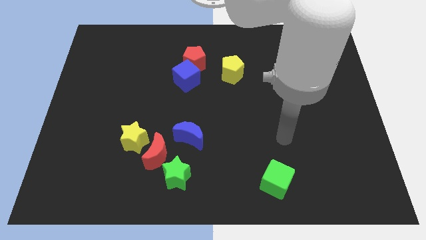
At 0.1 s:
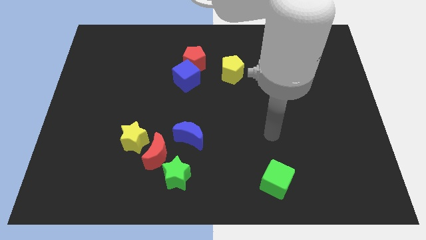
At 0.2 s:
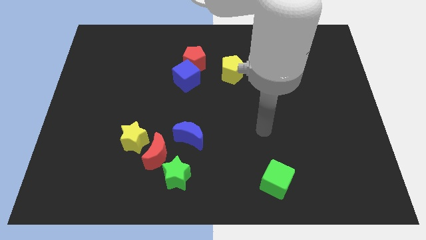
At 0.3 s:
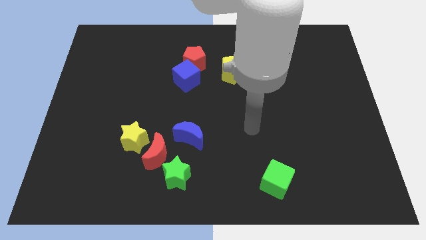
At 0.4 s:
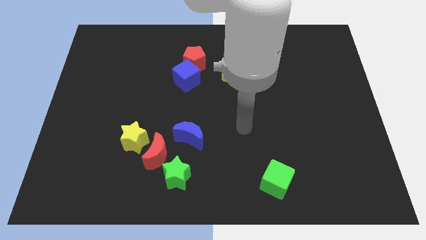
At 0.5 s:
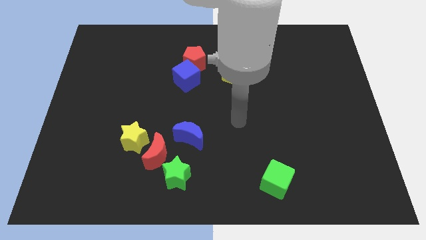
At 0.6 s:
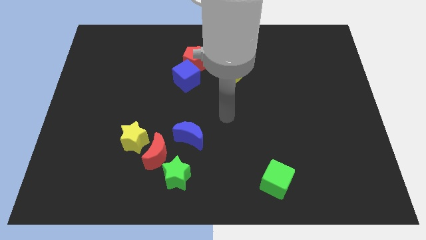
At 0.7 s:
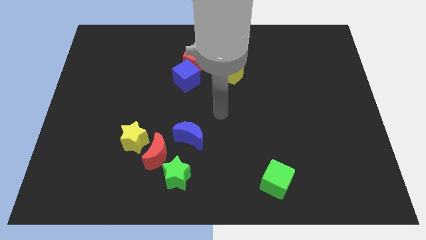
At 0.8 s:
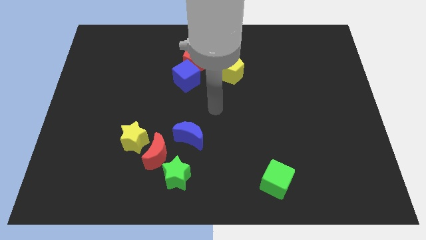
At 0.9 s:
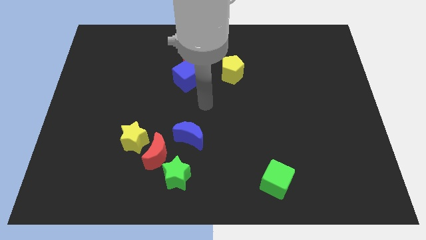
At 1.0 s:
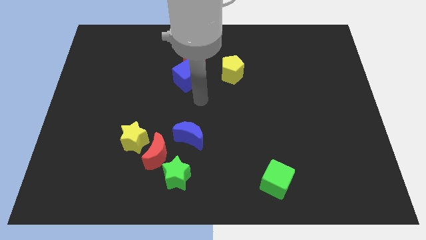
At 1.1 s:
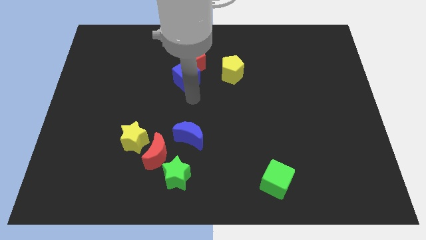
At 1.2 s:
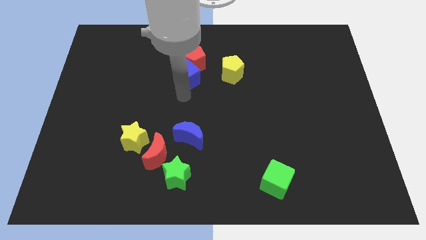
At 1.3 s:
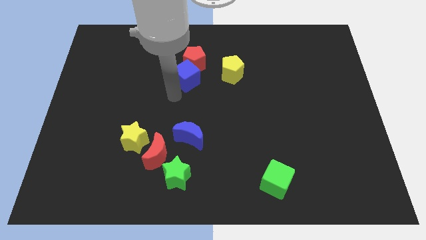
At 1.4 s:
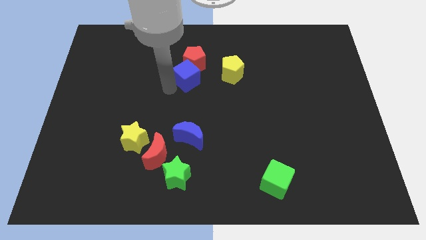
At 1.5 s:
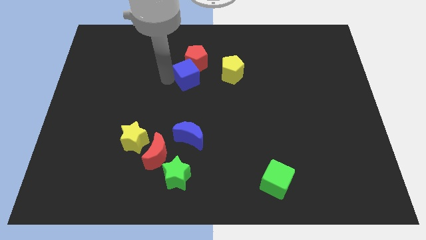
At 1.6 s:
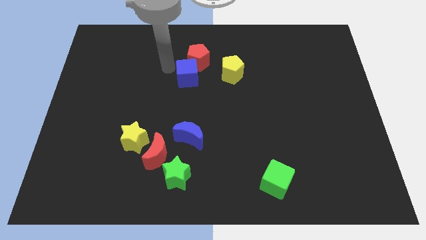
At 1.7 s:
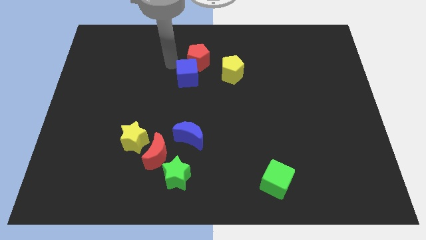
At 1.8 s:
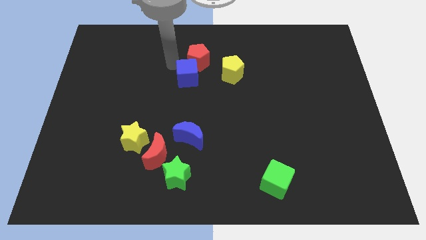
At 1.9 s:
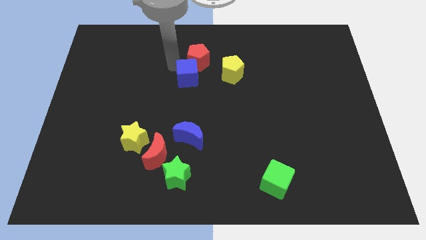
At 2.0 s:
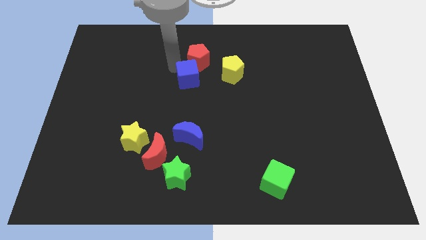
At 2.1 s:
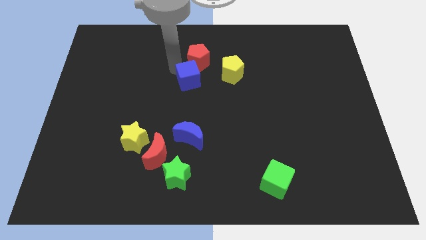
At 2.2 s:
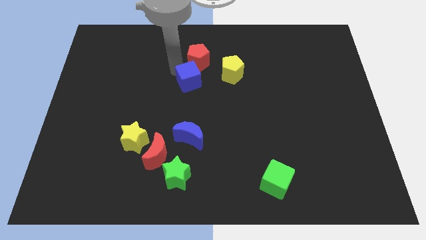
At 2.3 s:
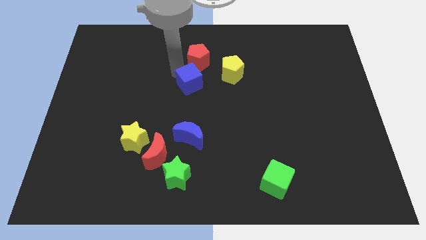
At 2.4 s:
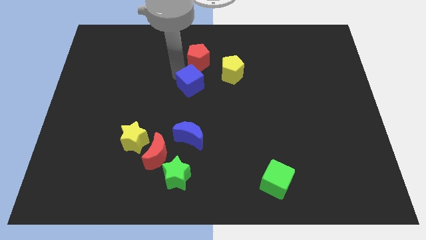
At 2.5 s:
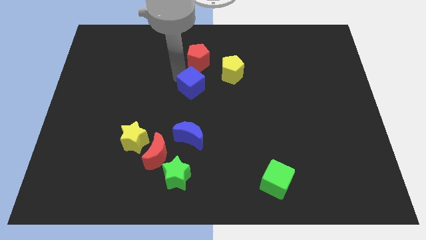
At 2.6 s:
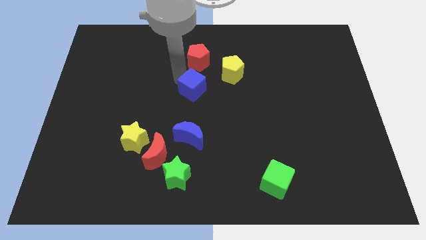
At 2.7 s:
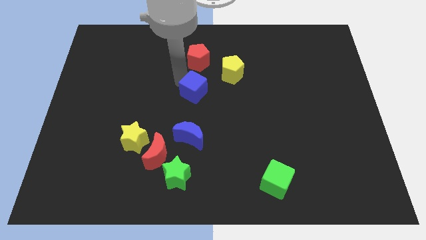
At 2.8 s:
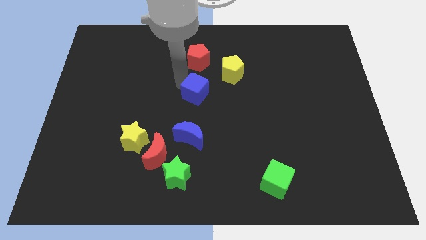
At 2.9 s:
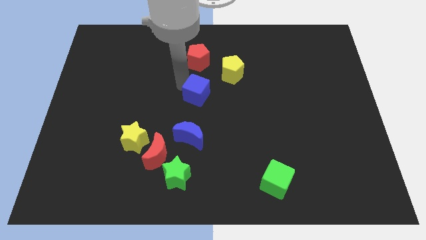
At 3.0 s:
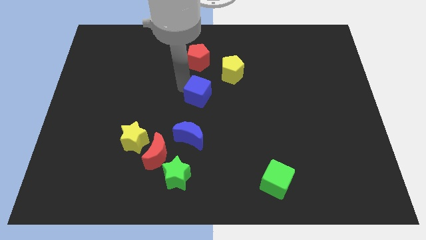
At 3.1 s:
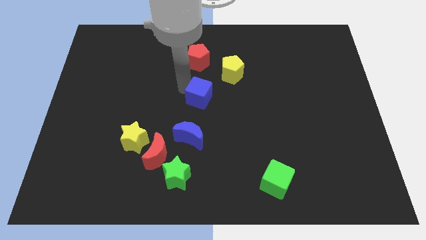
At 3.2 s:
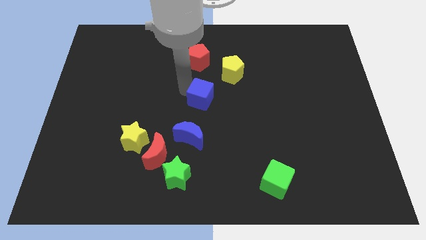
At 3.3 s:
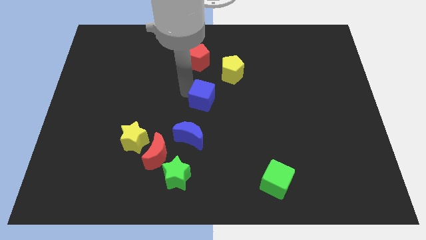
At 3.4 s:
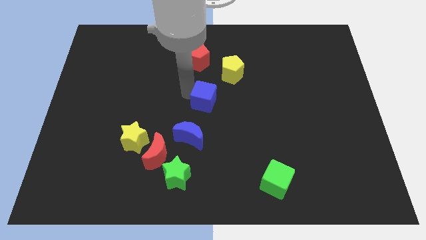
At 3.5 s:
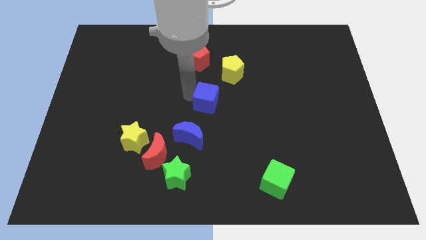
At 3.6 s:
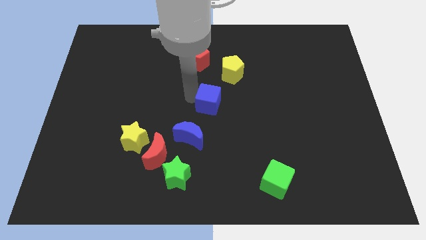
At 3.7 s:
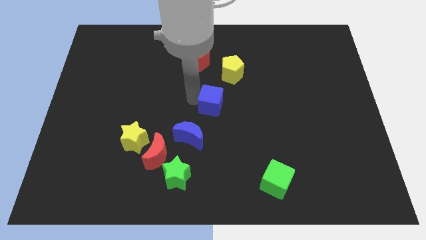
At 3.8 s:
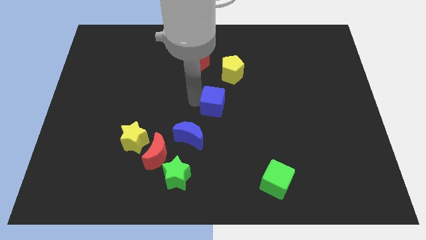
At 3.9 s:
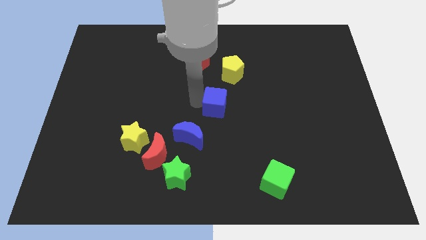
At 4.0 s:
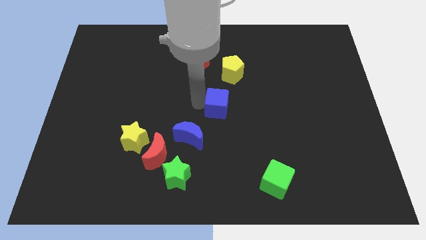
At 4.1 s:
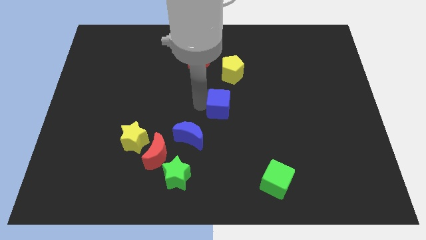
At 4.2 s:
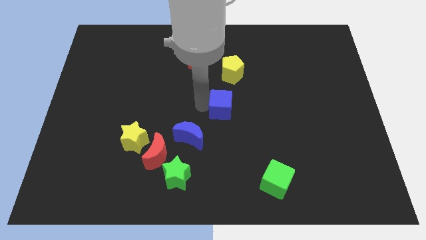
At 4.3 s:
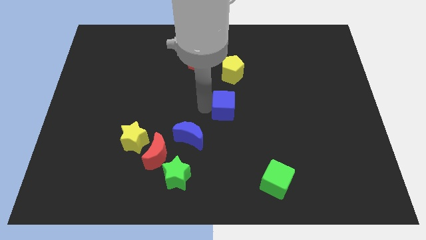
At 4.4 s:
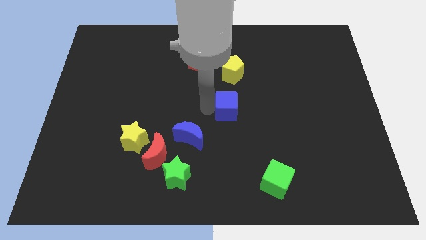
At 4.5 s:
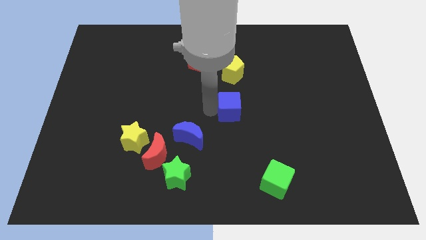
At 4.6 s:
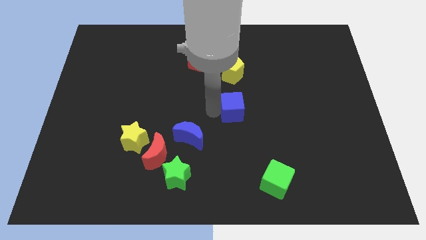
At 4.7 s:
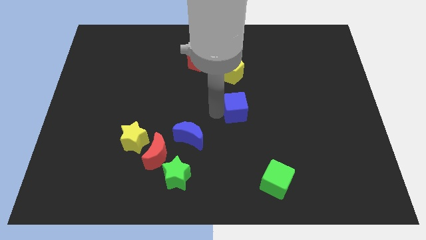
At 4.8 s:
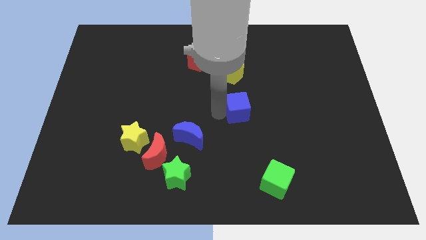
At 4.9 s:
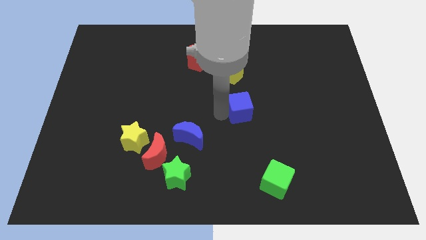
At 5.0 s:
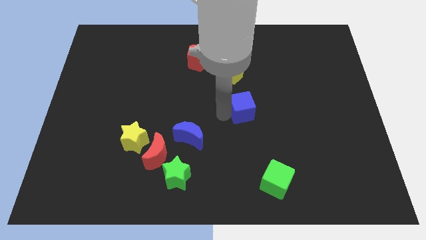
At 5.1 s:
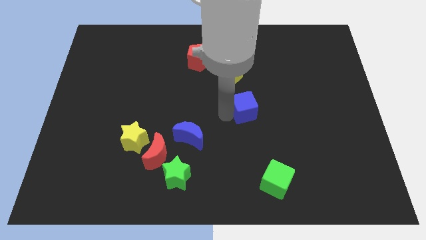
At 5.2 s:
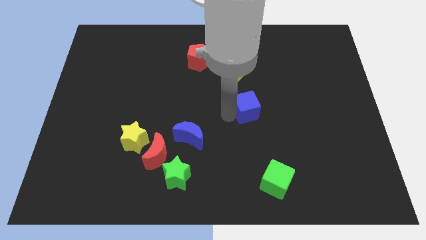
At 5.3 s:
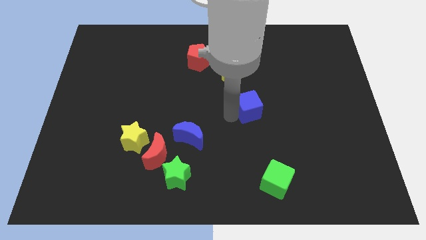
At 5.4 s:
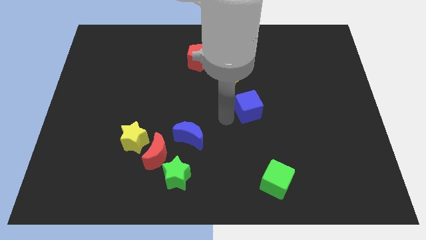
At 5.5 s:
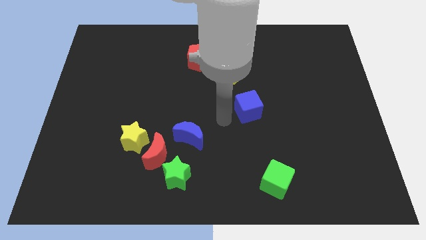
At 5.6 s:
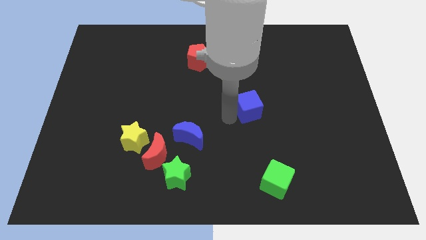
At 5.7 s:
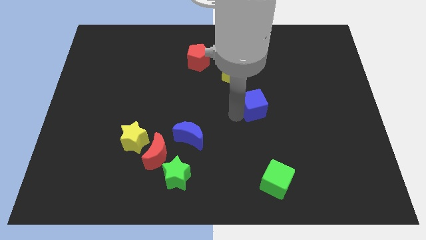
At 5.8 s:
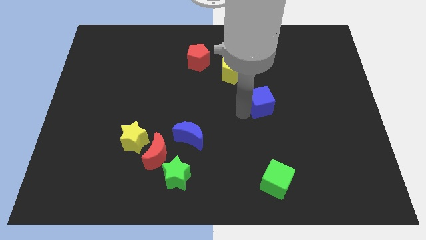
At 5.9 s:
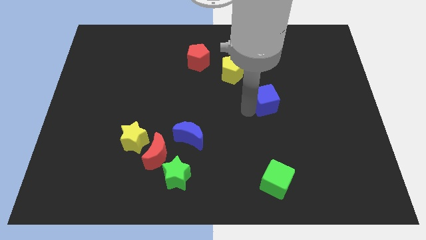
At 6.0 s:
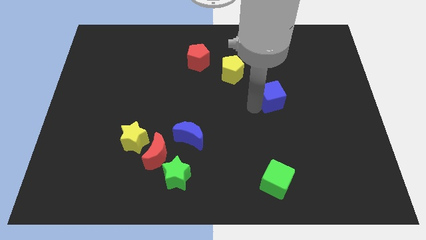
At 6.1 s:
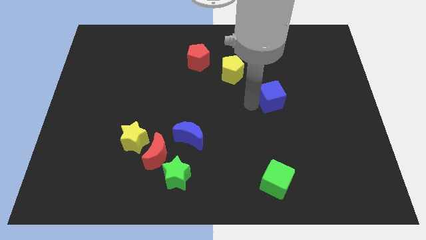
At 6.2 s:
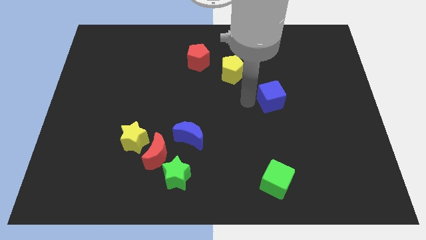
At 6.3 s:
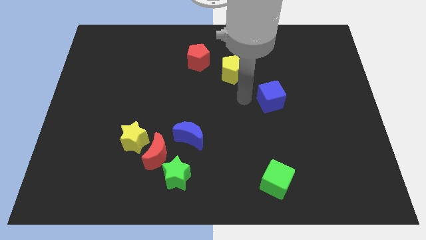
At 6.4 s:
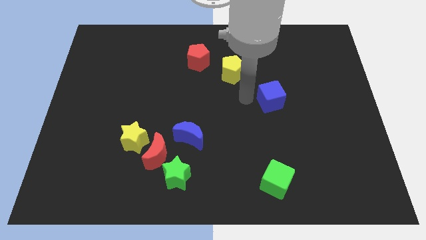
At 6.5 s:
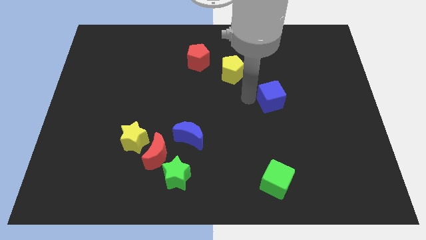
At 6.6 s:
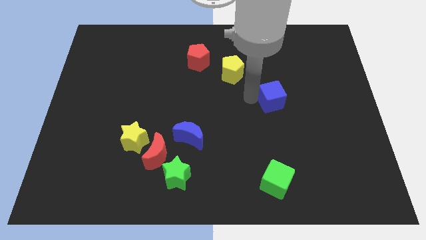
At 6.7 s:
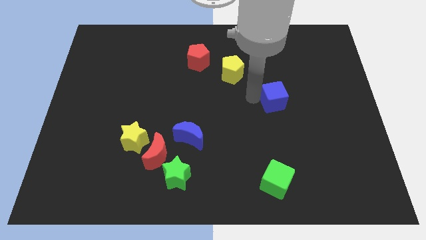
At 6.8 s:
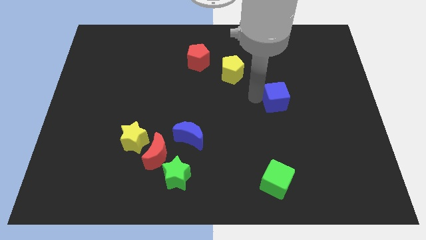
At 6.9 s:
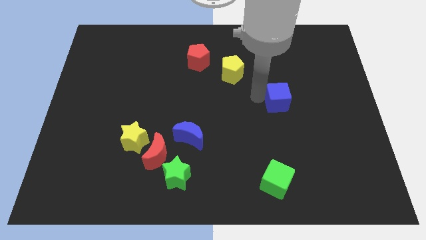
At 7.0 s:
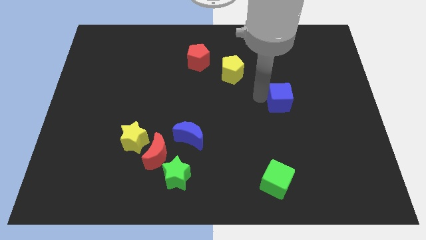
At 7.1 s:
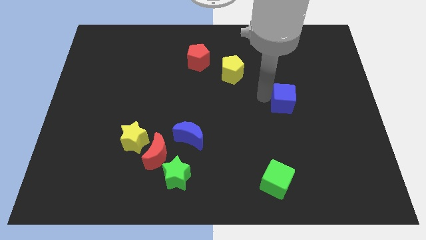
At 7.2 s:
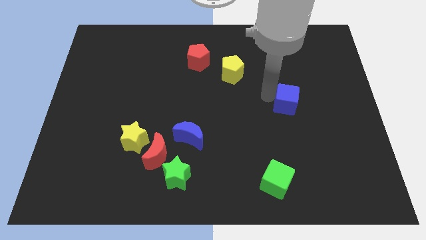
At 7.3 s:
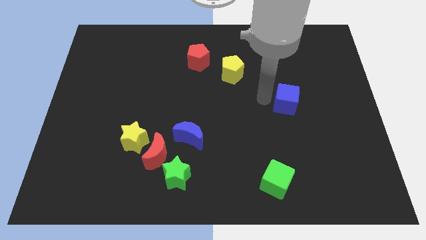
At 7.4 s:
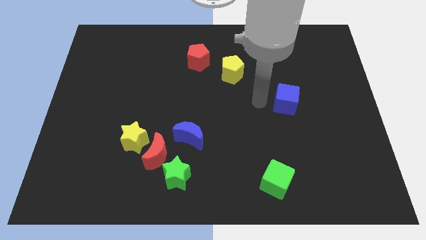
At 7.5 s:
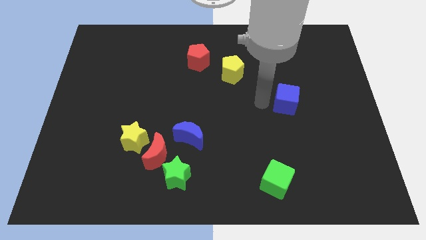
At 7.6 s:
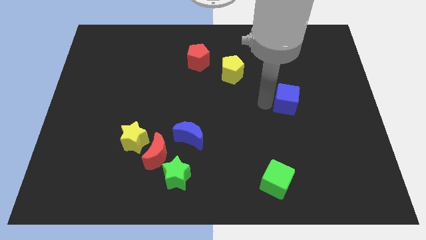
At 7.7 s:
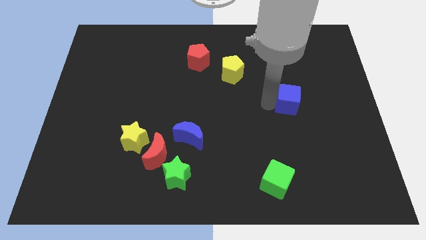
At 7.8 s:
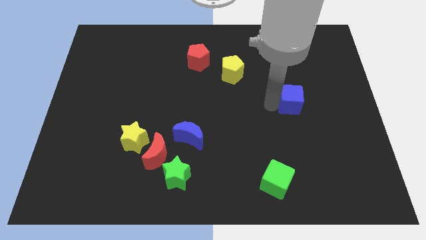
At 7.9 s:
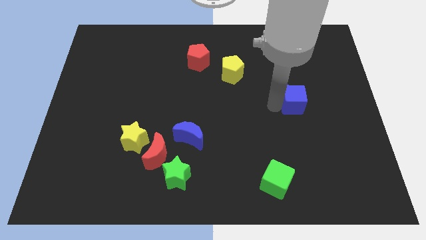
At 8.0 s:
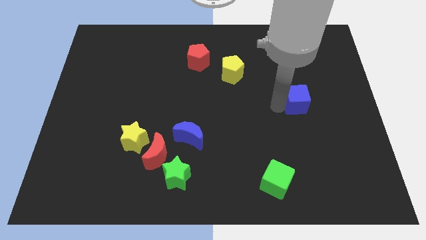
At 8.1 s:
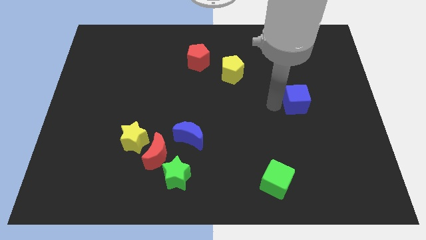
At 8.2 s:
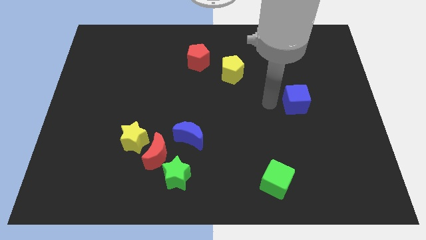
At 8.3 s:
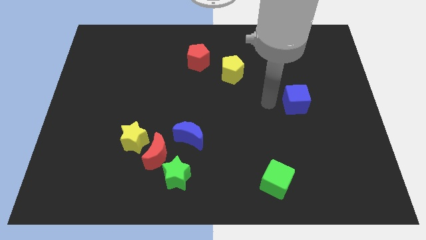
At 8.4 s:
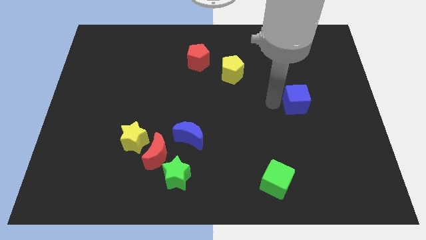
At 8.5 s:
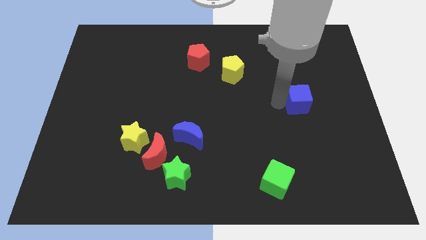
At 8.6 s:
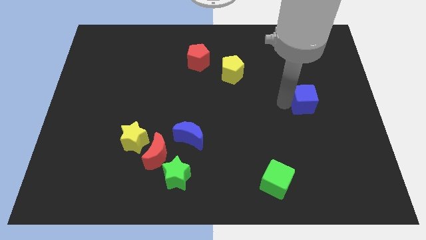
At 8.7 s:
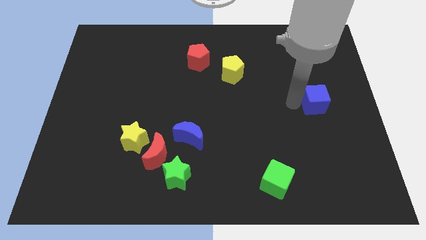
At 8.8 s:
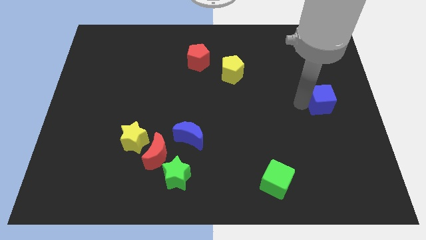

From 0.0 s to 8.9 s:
put the blue cube to the right side of the board
